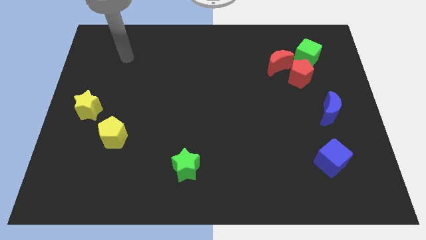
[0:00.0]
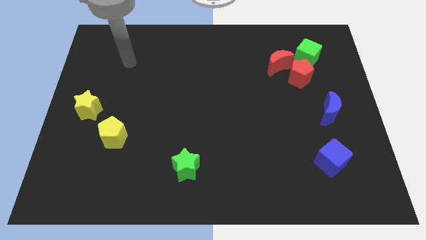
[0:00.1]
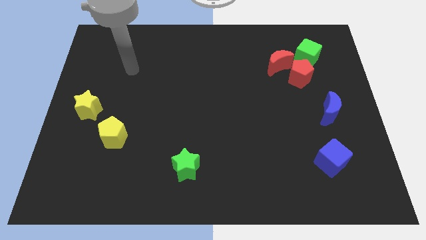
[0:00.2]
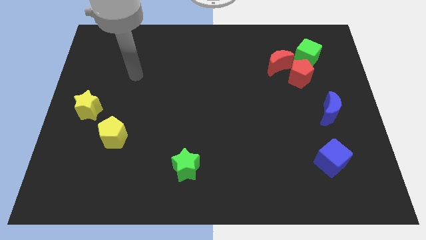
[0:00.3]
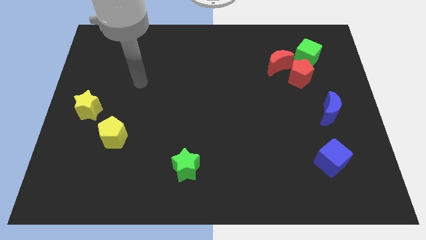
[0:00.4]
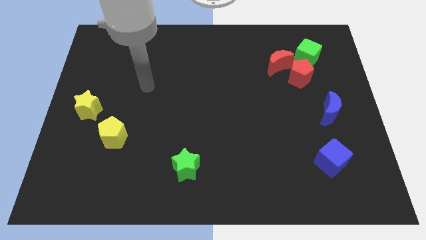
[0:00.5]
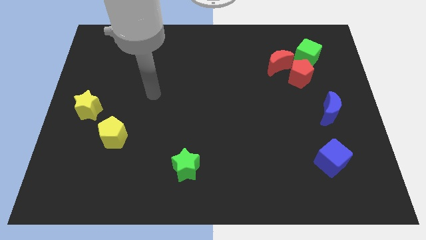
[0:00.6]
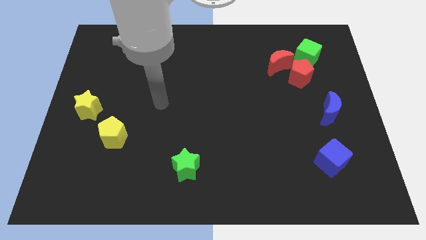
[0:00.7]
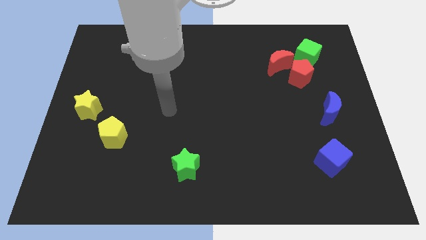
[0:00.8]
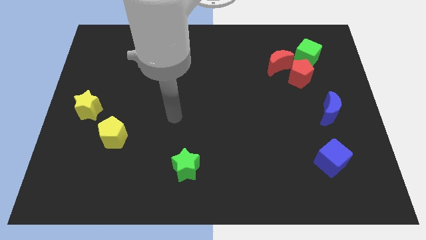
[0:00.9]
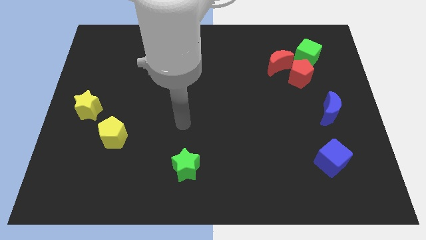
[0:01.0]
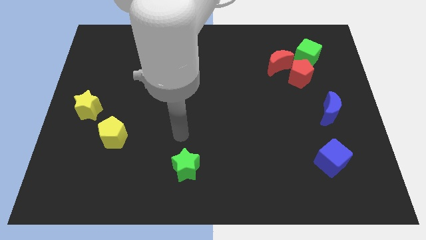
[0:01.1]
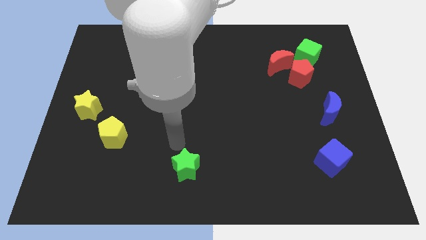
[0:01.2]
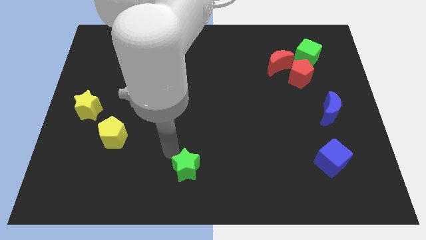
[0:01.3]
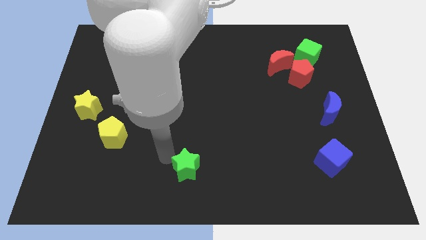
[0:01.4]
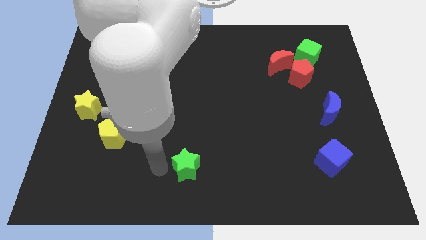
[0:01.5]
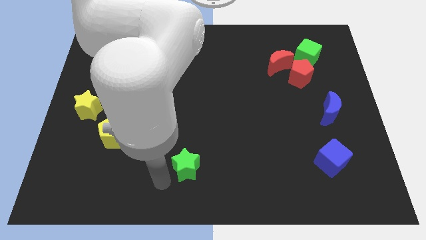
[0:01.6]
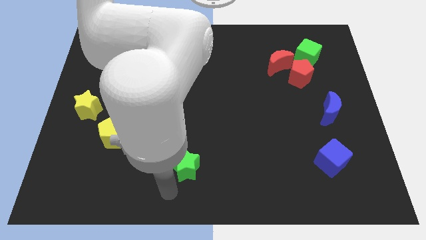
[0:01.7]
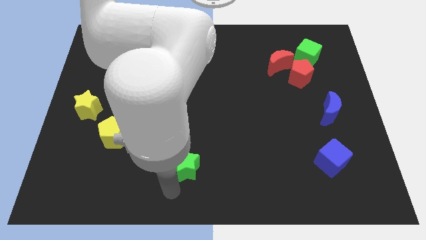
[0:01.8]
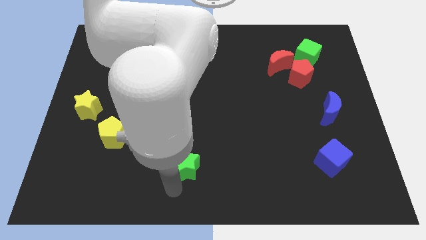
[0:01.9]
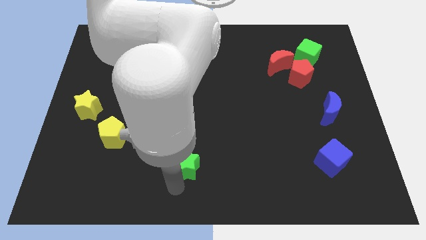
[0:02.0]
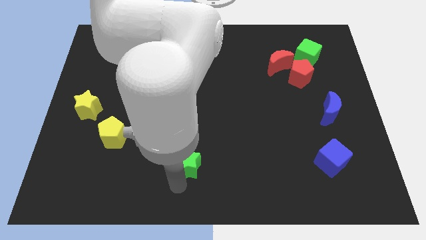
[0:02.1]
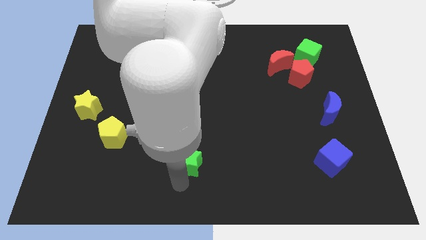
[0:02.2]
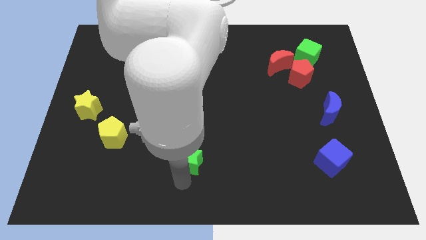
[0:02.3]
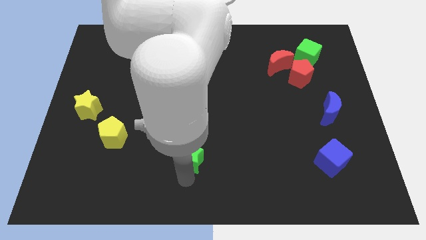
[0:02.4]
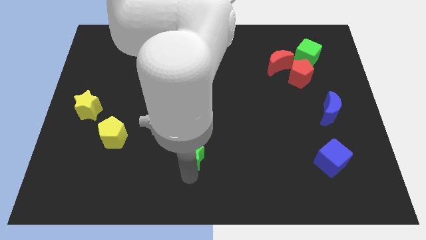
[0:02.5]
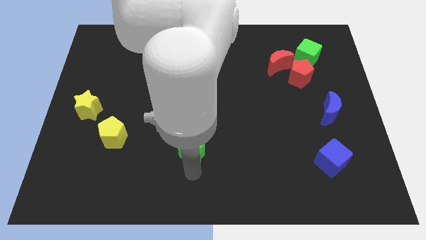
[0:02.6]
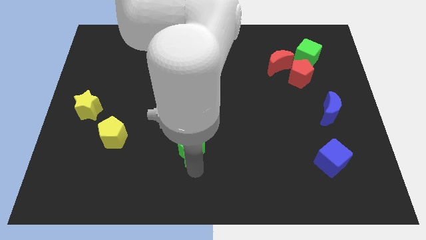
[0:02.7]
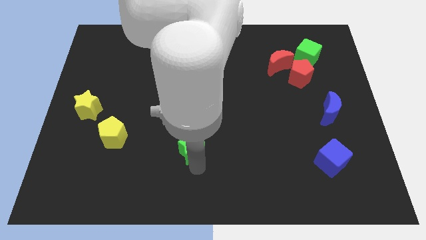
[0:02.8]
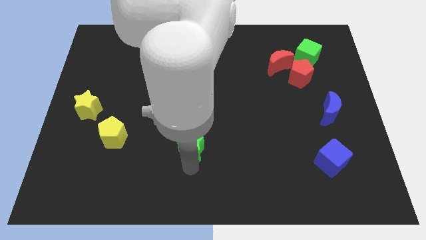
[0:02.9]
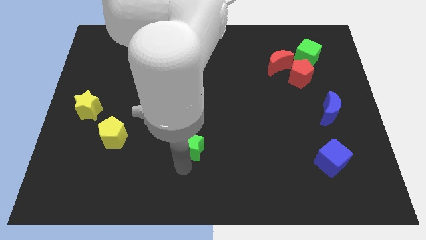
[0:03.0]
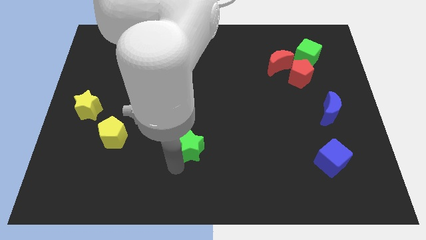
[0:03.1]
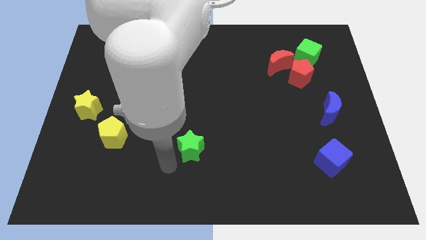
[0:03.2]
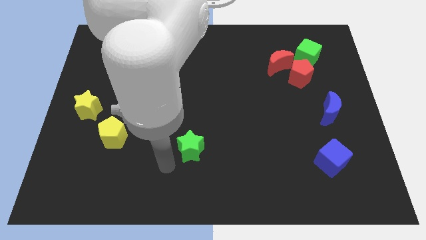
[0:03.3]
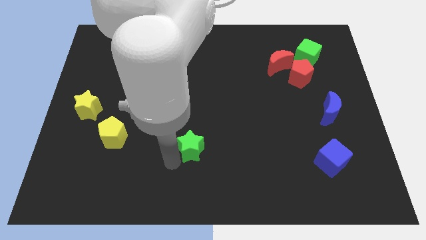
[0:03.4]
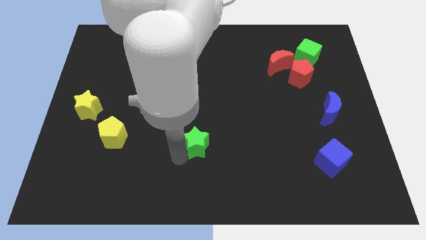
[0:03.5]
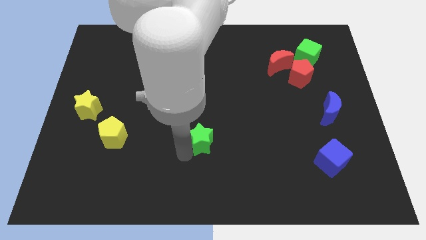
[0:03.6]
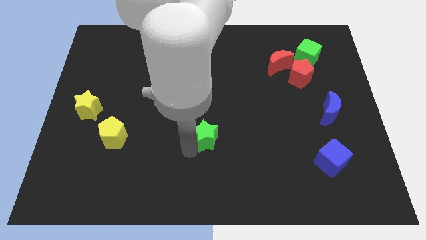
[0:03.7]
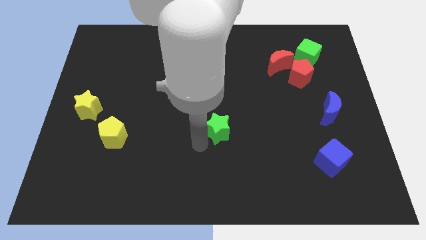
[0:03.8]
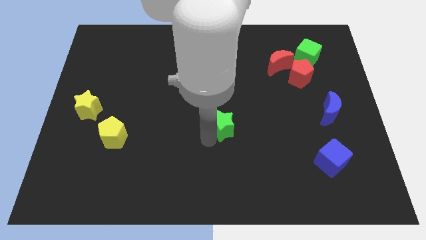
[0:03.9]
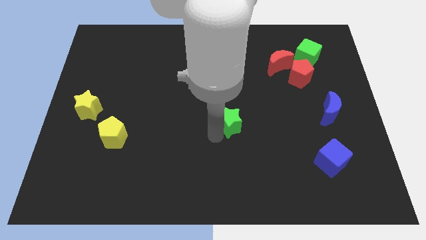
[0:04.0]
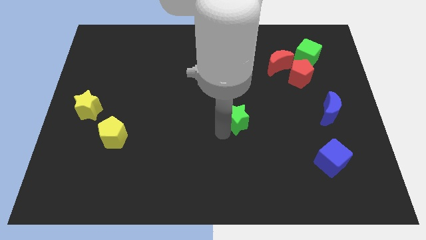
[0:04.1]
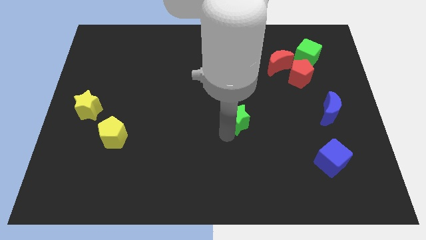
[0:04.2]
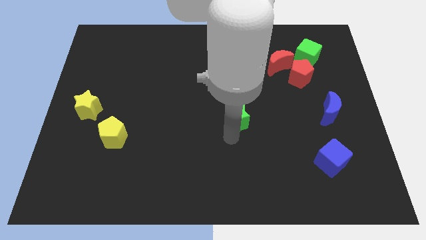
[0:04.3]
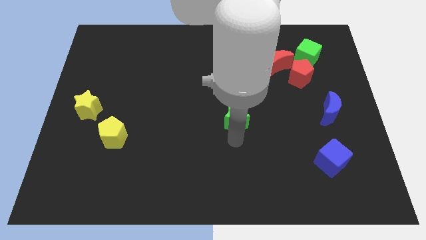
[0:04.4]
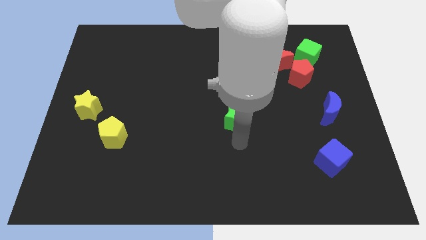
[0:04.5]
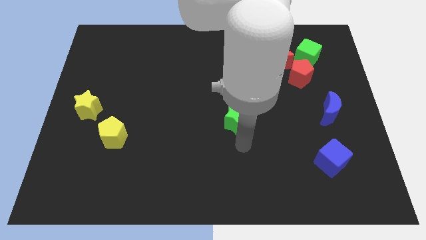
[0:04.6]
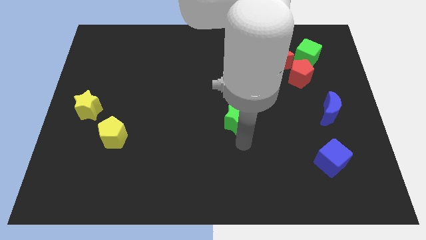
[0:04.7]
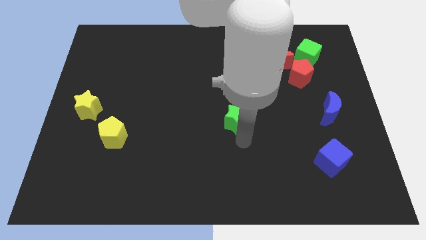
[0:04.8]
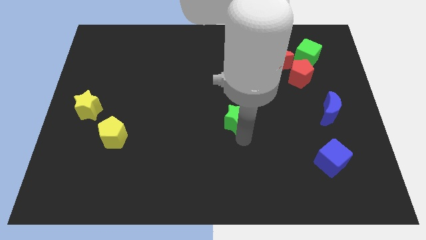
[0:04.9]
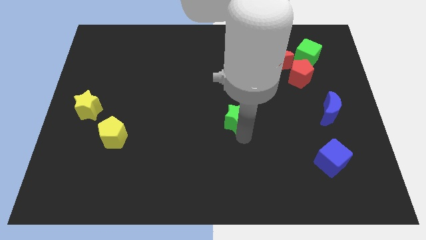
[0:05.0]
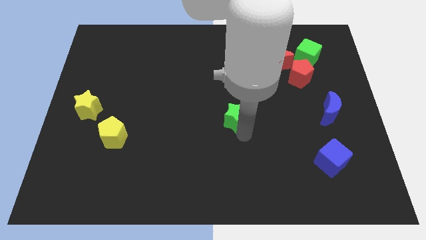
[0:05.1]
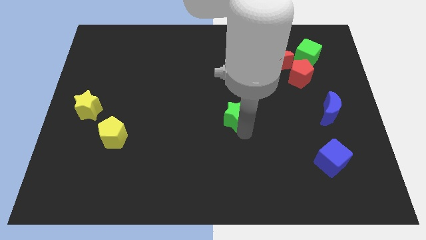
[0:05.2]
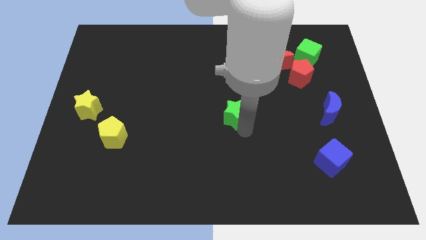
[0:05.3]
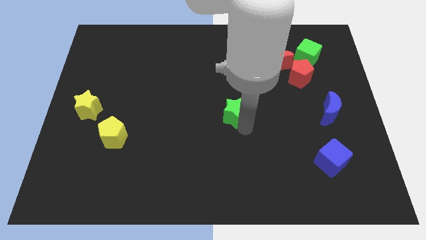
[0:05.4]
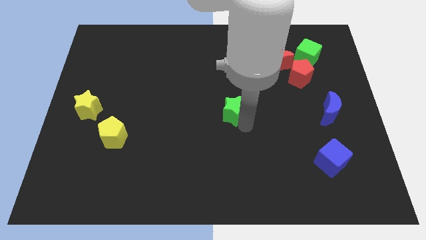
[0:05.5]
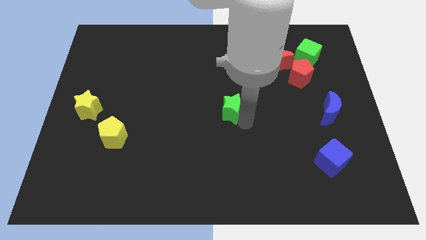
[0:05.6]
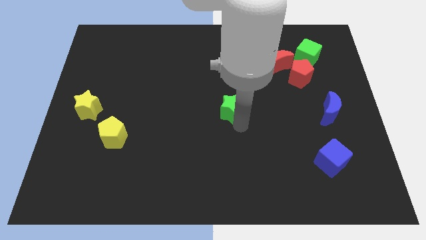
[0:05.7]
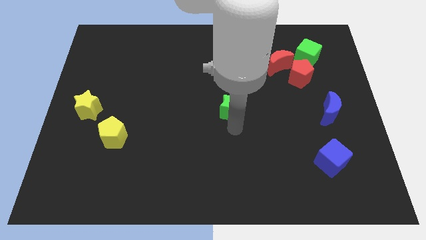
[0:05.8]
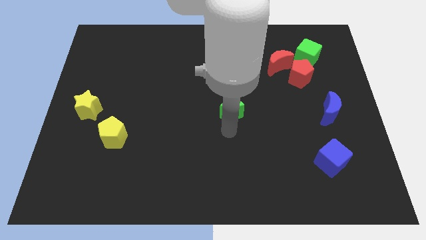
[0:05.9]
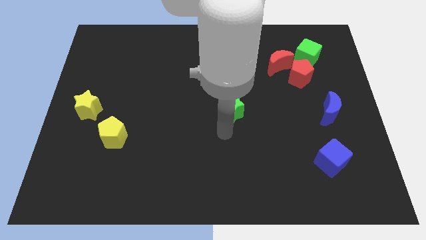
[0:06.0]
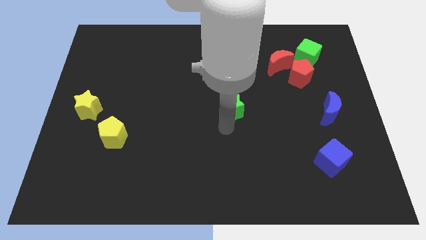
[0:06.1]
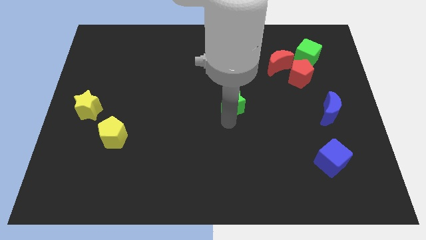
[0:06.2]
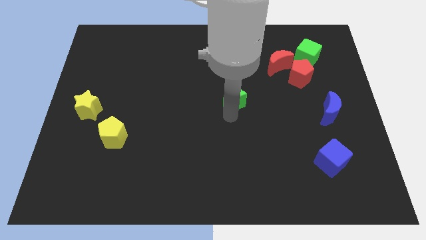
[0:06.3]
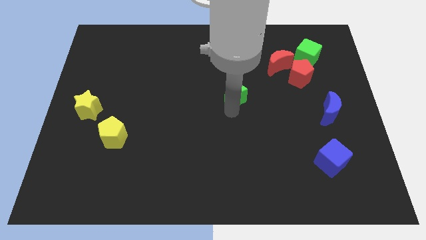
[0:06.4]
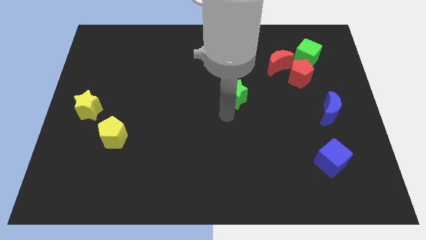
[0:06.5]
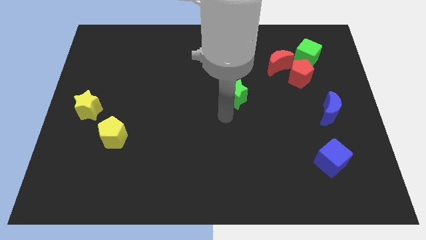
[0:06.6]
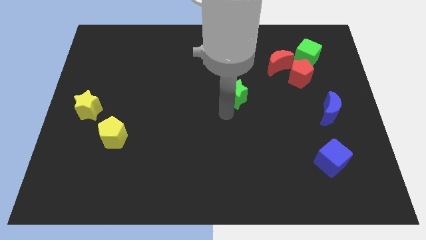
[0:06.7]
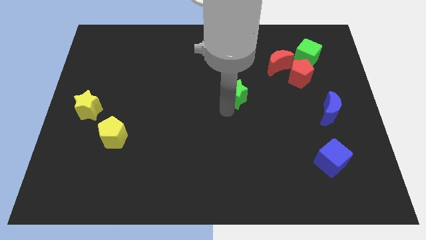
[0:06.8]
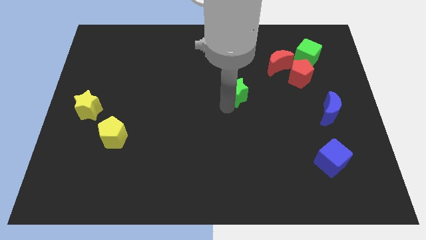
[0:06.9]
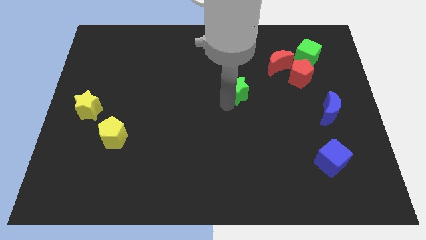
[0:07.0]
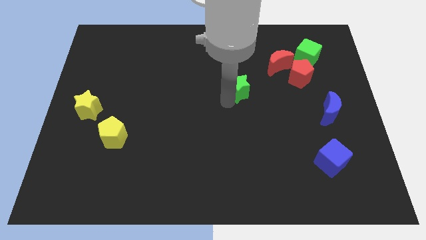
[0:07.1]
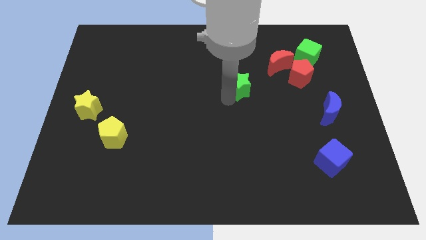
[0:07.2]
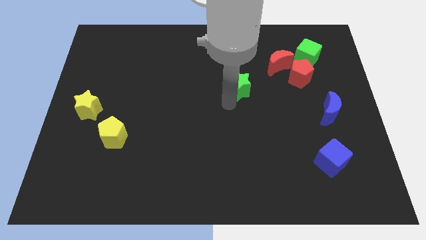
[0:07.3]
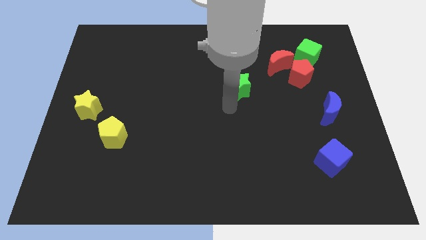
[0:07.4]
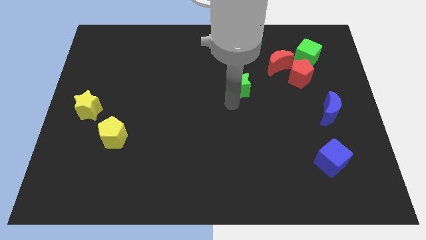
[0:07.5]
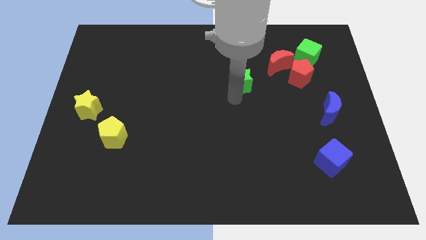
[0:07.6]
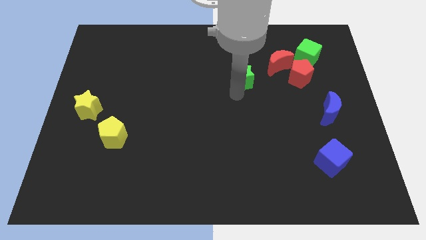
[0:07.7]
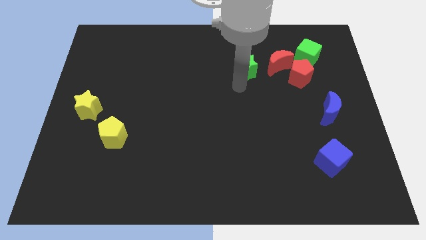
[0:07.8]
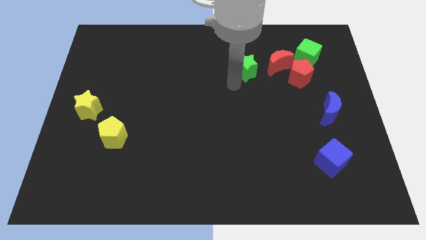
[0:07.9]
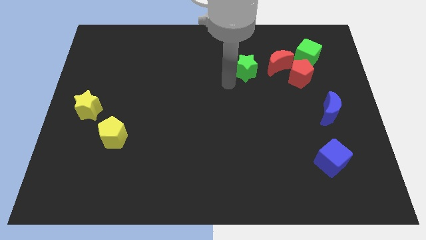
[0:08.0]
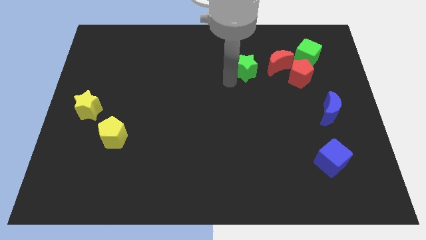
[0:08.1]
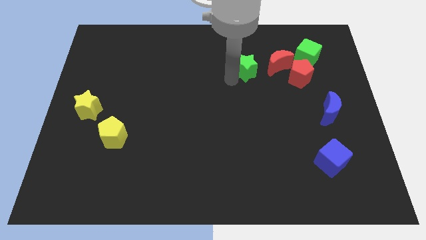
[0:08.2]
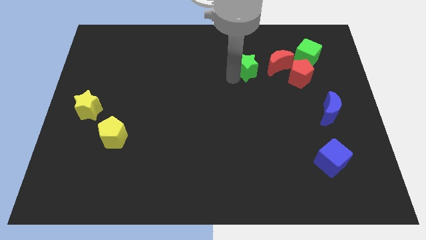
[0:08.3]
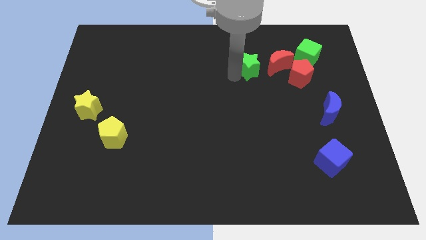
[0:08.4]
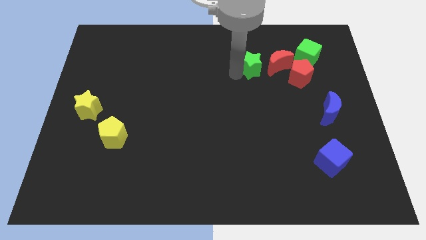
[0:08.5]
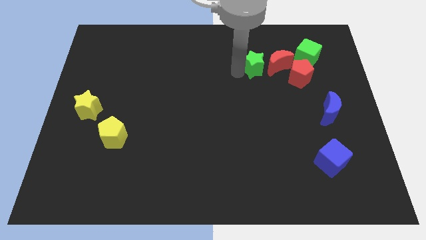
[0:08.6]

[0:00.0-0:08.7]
push the green star just left of the green cube
